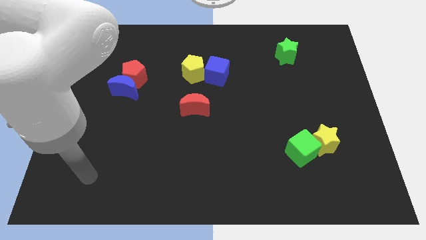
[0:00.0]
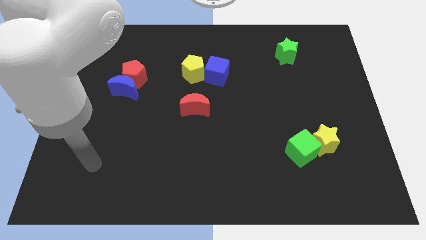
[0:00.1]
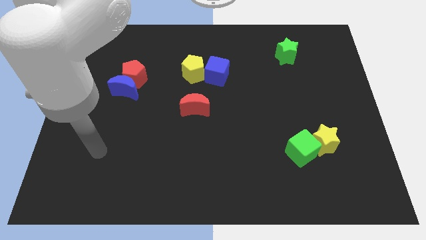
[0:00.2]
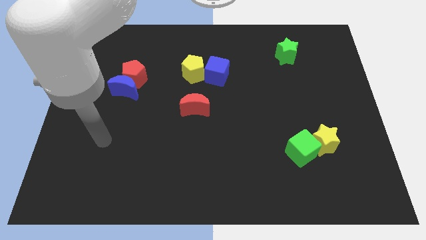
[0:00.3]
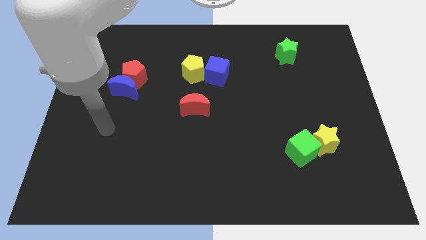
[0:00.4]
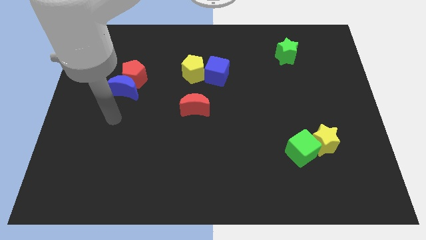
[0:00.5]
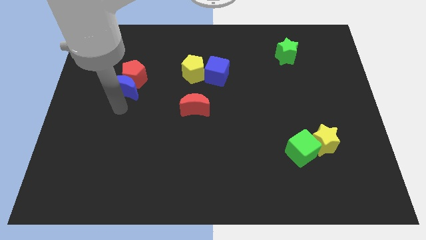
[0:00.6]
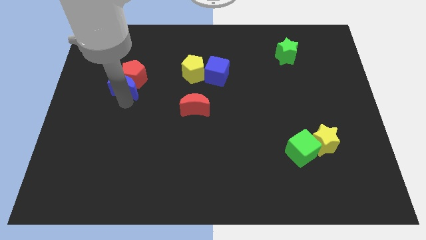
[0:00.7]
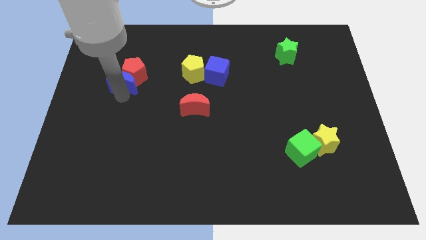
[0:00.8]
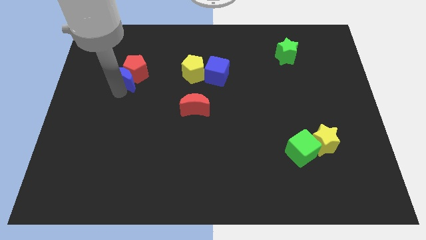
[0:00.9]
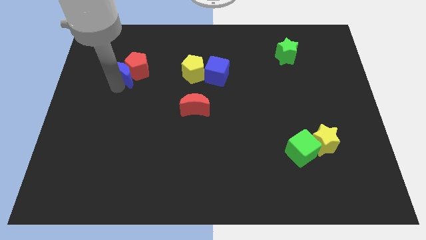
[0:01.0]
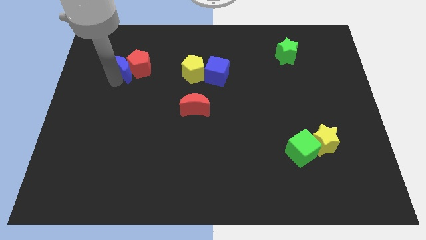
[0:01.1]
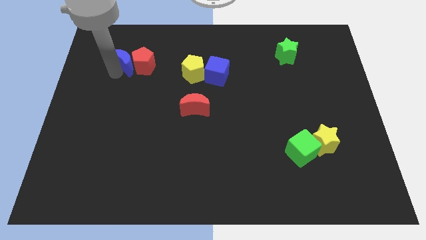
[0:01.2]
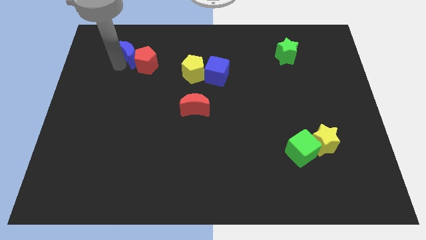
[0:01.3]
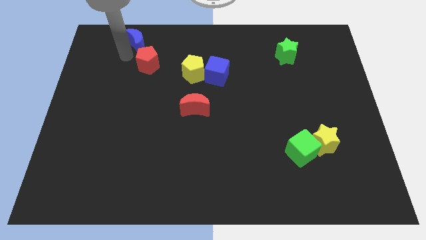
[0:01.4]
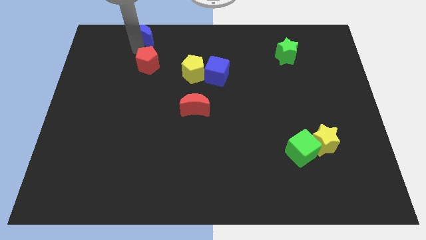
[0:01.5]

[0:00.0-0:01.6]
move the red pentagon away from the blue moon

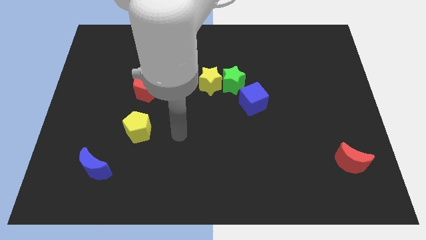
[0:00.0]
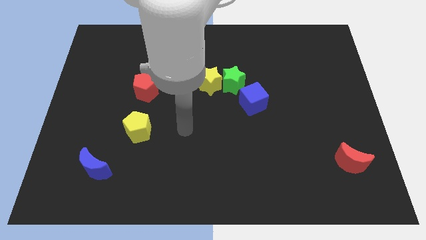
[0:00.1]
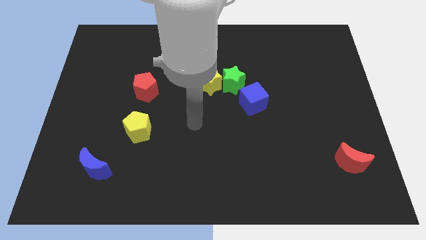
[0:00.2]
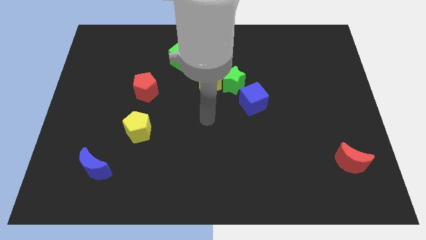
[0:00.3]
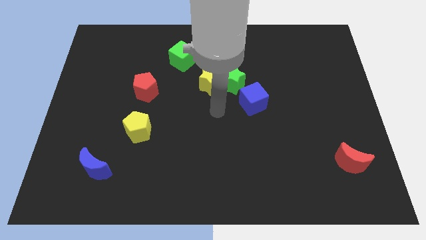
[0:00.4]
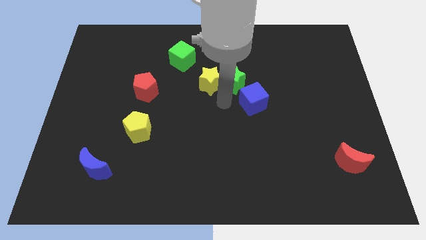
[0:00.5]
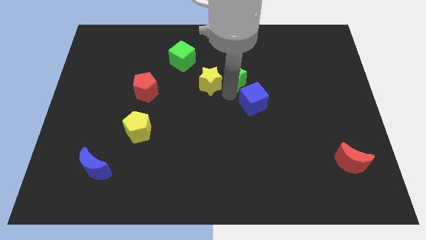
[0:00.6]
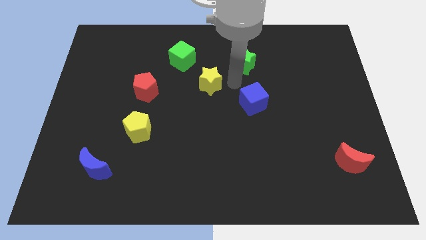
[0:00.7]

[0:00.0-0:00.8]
separate the yellow star from the green star

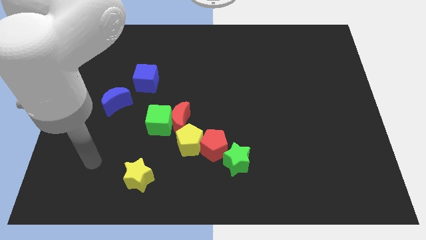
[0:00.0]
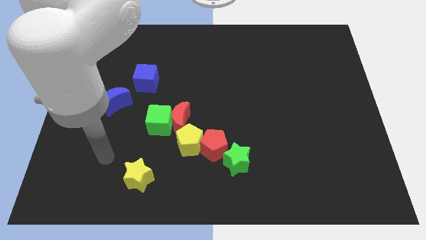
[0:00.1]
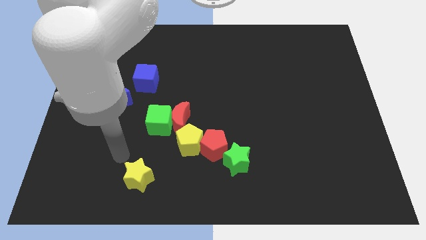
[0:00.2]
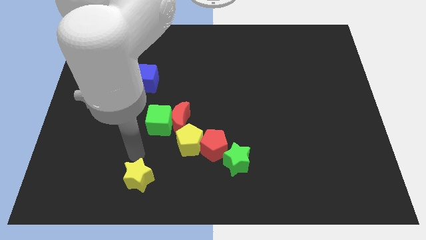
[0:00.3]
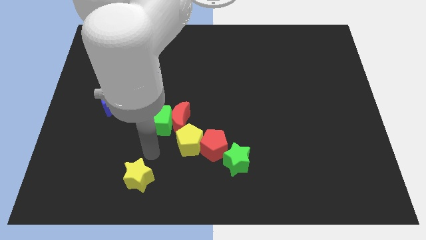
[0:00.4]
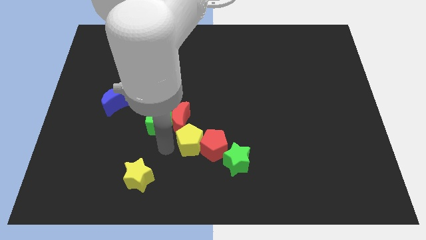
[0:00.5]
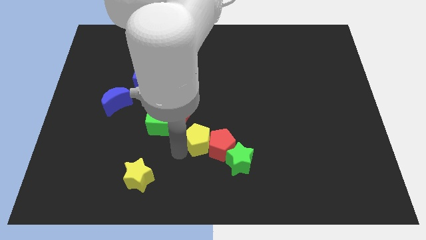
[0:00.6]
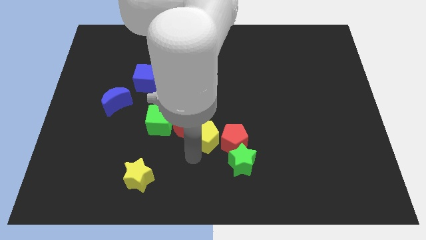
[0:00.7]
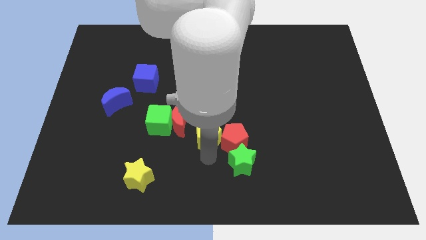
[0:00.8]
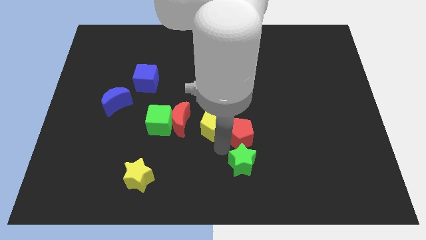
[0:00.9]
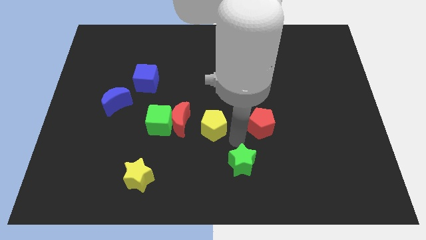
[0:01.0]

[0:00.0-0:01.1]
separate the green star from the red pentagon

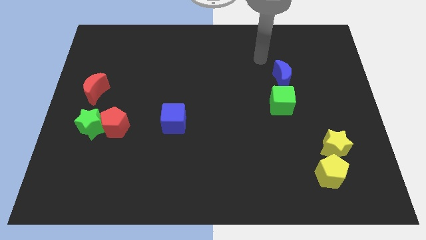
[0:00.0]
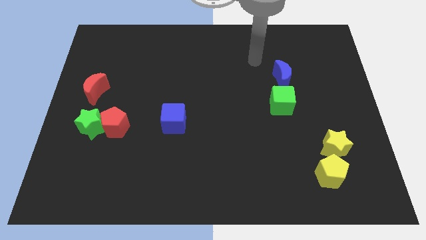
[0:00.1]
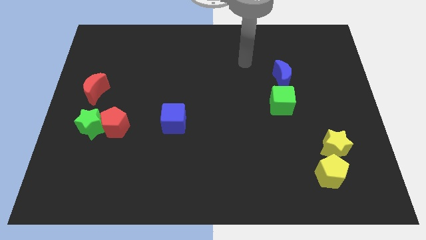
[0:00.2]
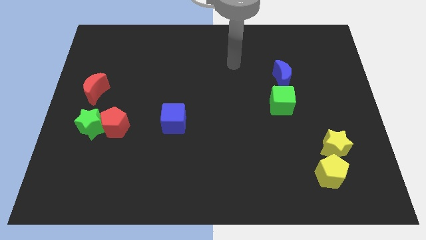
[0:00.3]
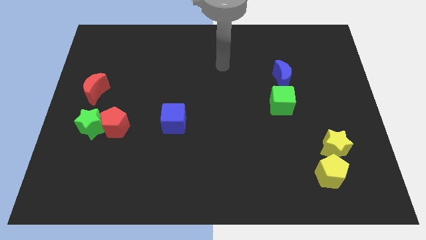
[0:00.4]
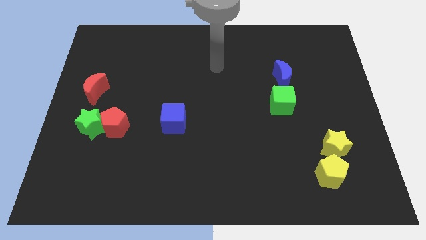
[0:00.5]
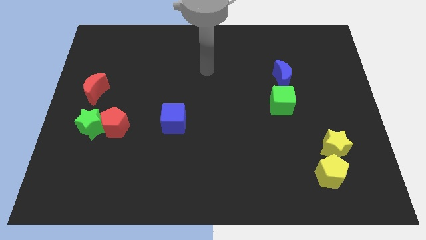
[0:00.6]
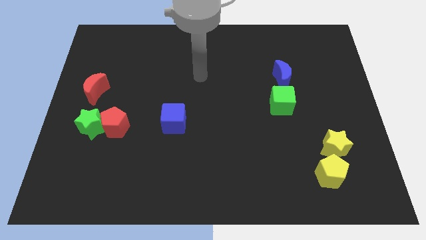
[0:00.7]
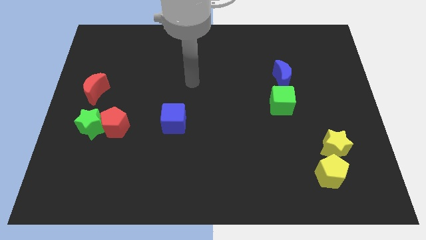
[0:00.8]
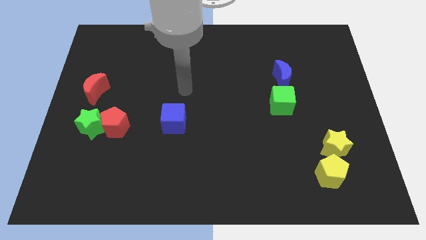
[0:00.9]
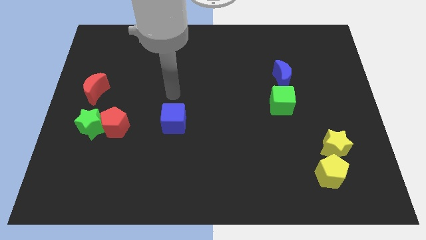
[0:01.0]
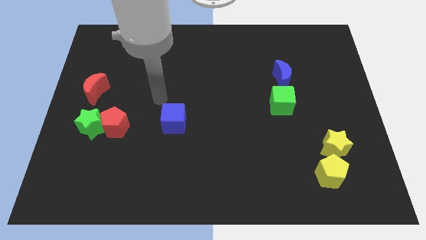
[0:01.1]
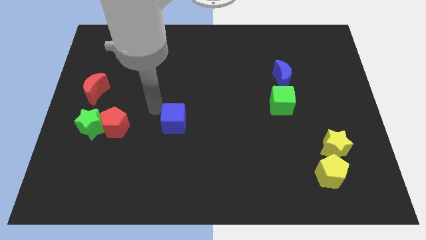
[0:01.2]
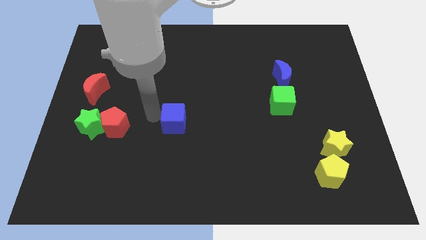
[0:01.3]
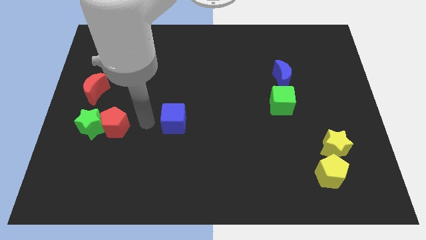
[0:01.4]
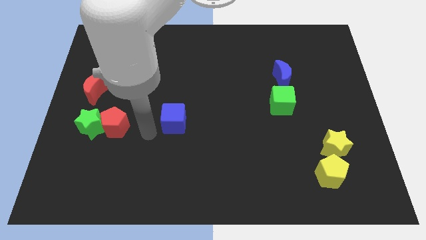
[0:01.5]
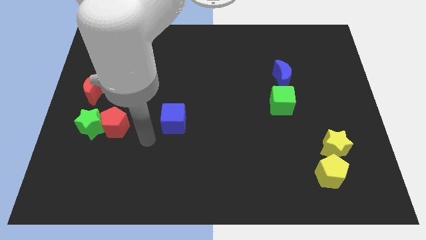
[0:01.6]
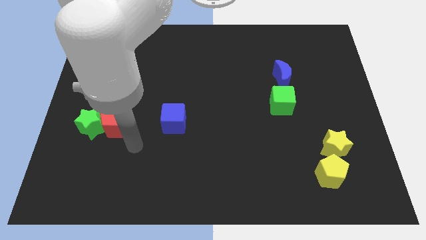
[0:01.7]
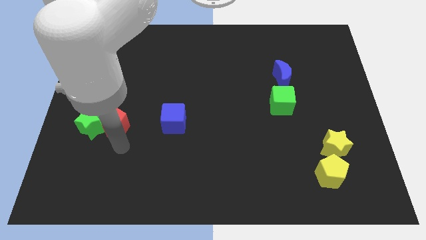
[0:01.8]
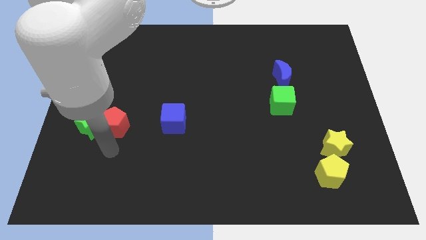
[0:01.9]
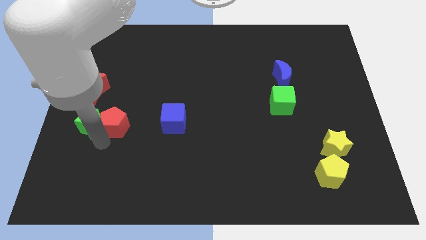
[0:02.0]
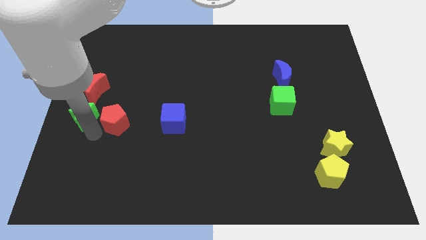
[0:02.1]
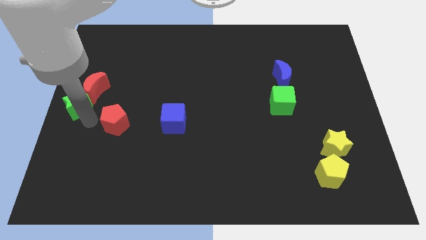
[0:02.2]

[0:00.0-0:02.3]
separate the red pentagon from the green star

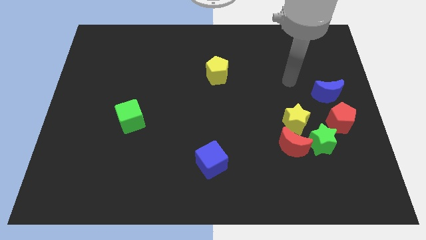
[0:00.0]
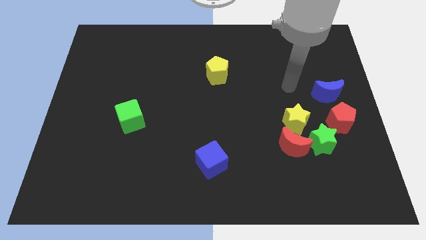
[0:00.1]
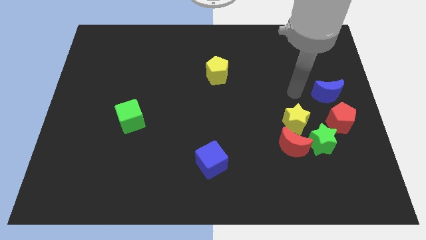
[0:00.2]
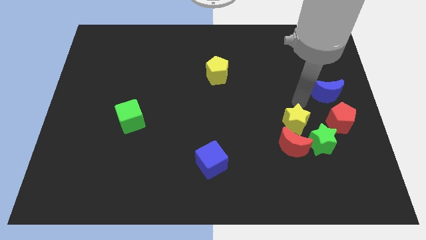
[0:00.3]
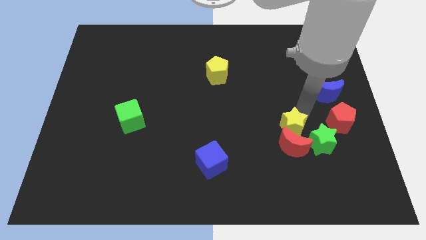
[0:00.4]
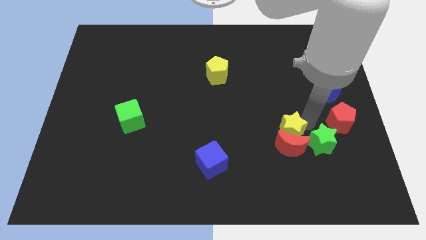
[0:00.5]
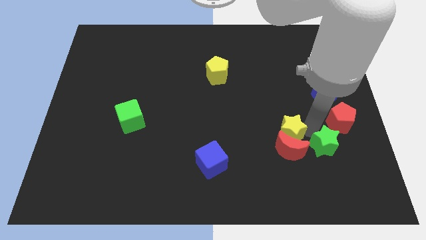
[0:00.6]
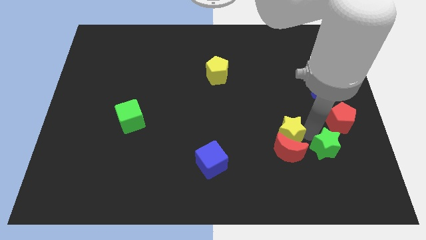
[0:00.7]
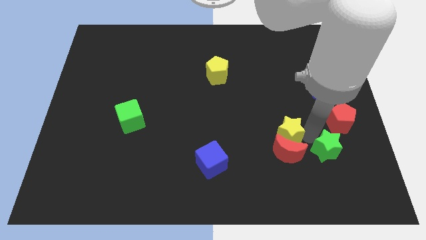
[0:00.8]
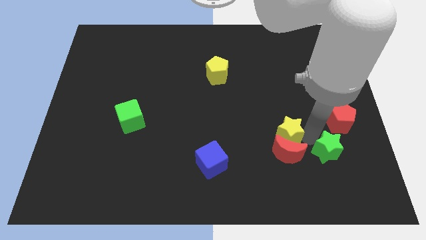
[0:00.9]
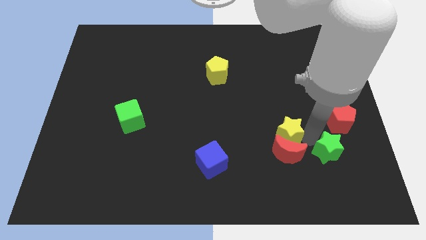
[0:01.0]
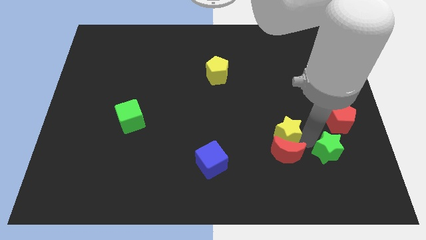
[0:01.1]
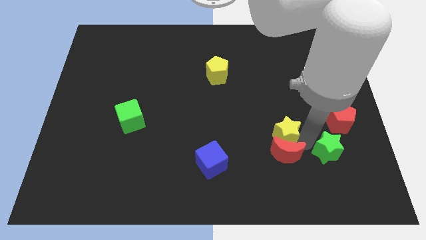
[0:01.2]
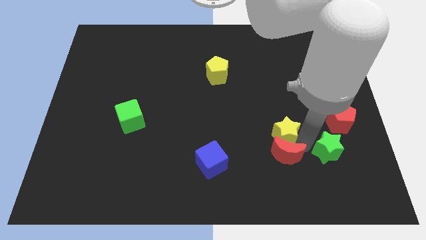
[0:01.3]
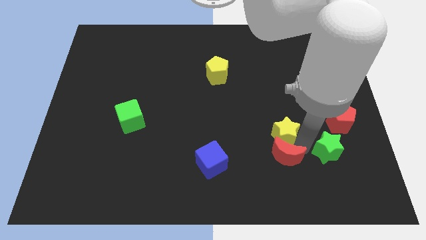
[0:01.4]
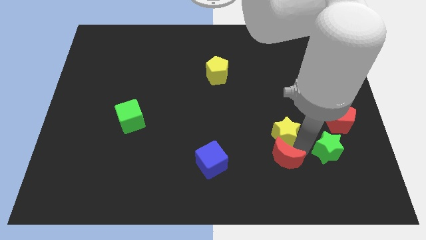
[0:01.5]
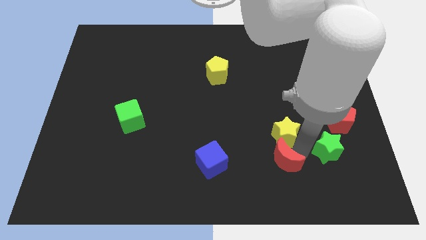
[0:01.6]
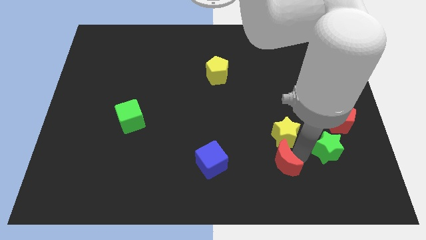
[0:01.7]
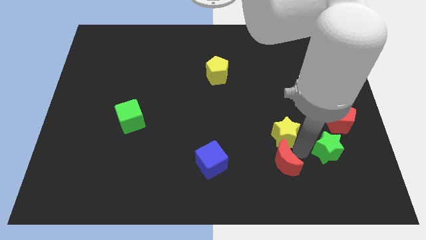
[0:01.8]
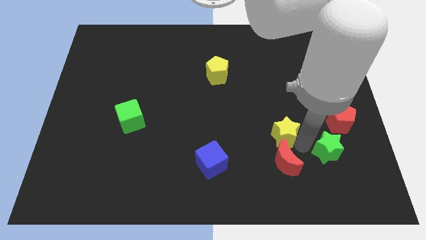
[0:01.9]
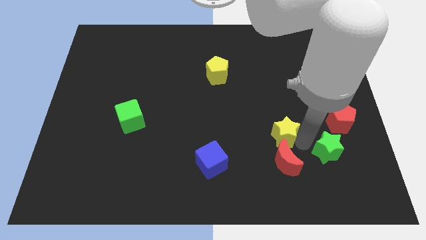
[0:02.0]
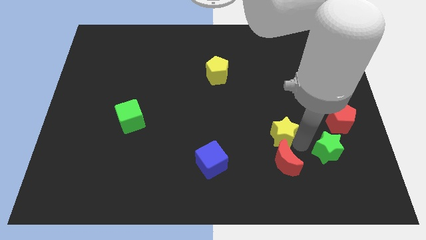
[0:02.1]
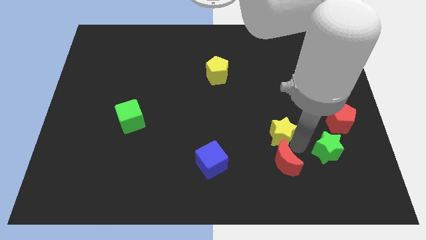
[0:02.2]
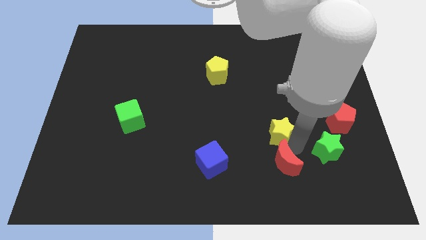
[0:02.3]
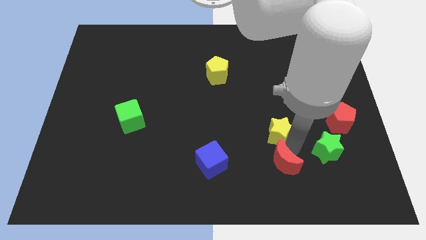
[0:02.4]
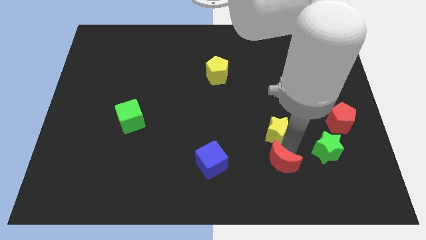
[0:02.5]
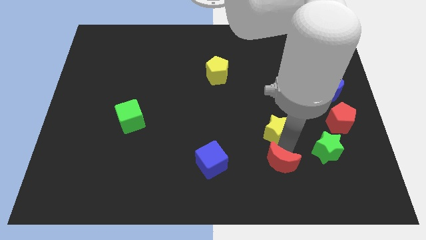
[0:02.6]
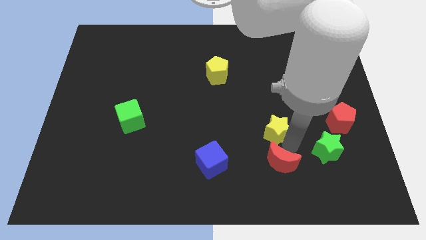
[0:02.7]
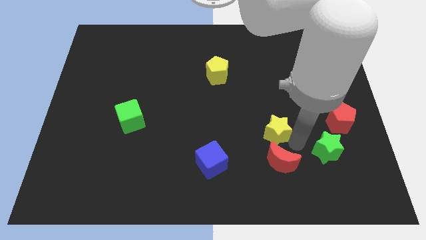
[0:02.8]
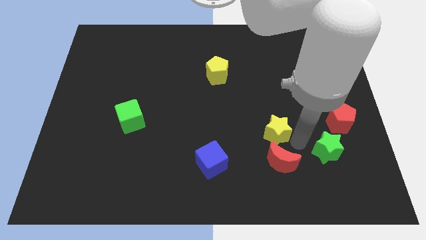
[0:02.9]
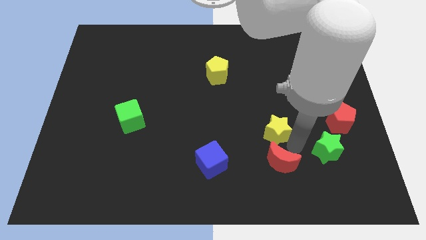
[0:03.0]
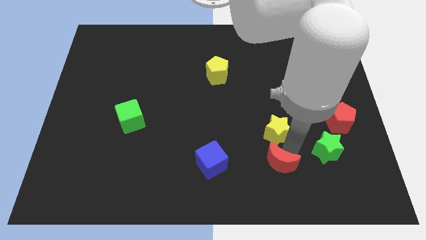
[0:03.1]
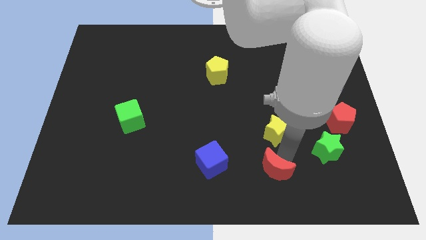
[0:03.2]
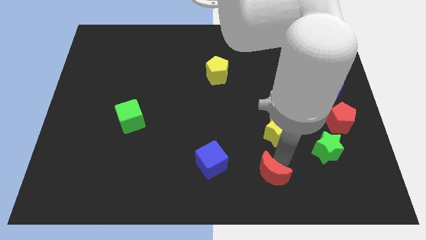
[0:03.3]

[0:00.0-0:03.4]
separate the red moon from the green star and yellow star

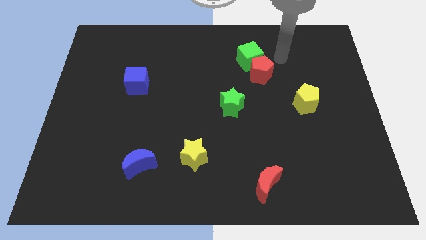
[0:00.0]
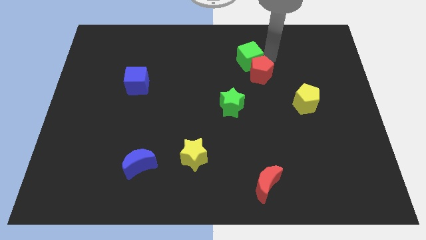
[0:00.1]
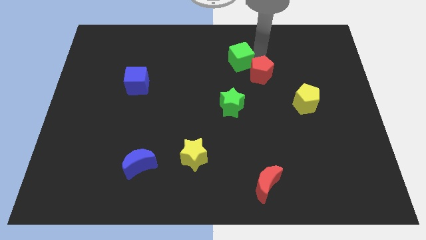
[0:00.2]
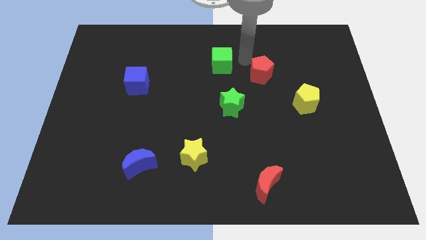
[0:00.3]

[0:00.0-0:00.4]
pull the red pentagon apart from the green cube
